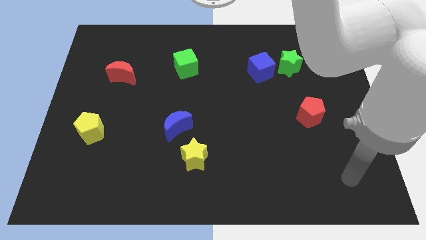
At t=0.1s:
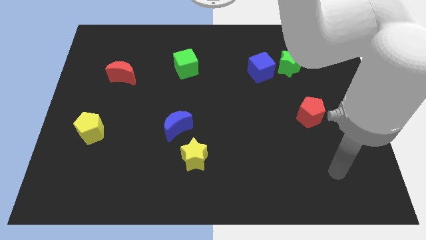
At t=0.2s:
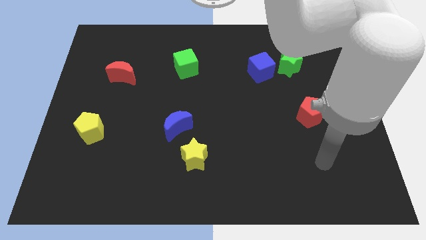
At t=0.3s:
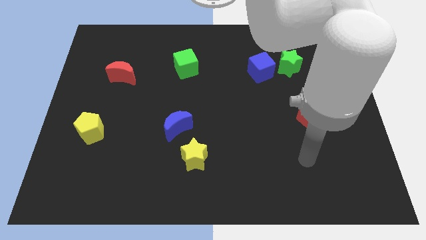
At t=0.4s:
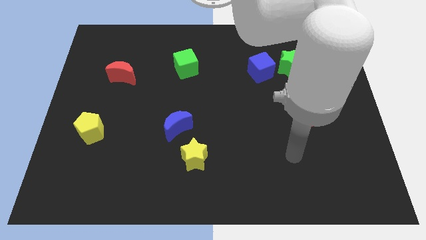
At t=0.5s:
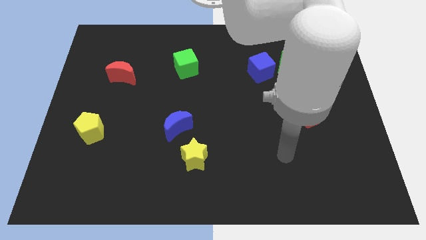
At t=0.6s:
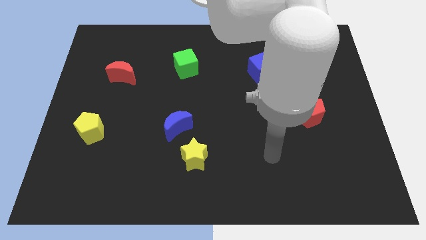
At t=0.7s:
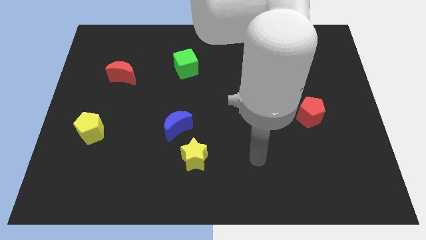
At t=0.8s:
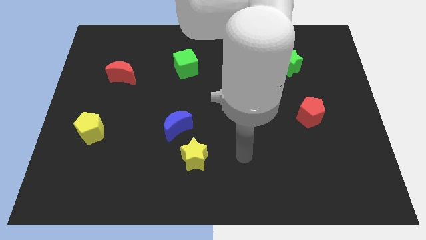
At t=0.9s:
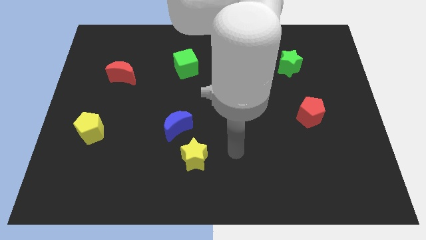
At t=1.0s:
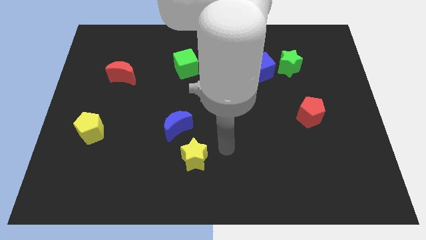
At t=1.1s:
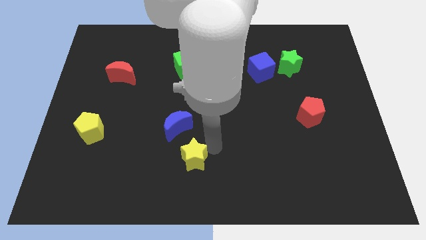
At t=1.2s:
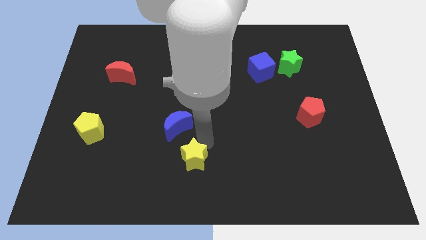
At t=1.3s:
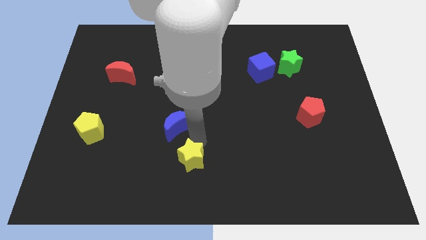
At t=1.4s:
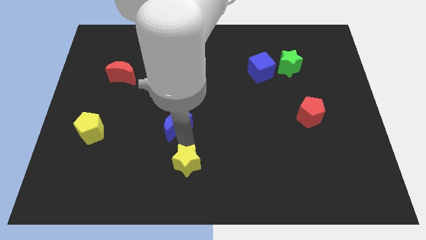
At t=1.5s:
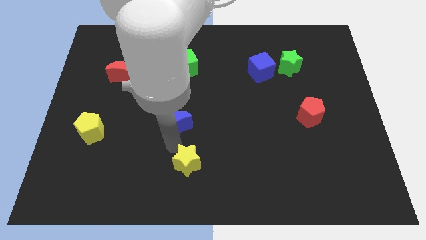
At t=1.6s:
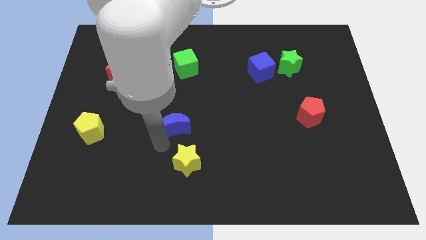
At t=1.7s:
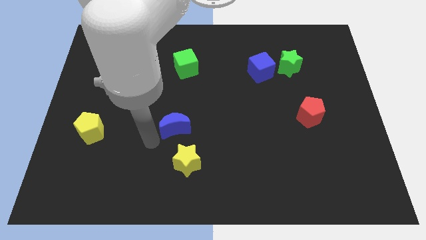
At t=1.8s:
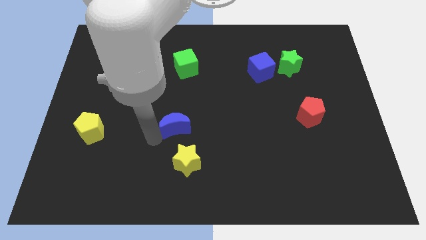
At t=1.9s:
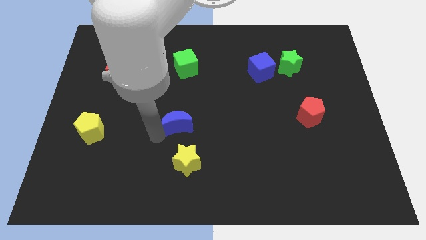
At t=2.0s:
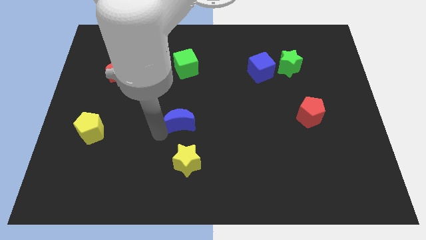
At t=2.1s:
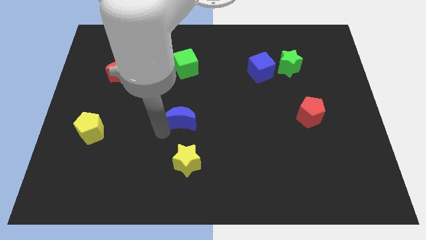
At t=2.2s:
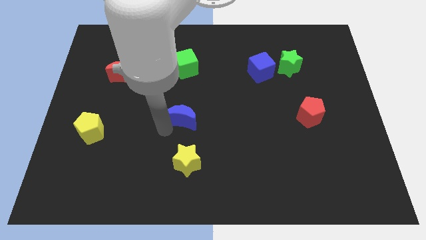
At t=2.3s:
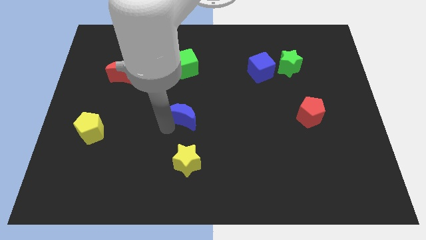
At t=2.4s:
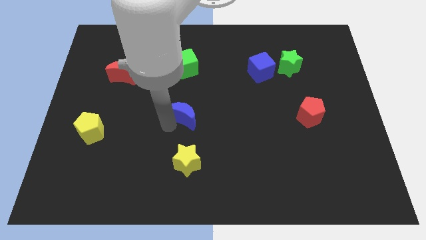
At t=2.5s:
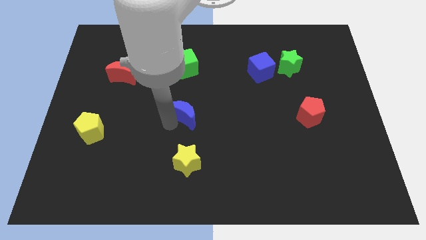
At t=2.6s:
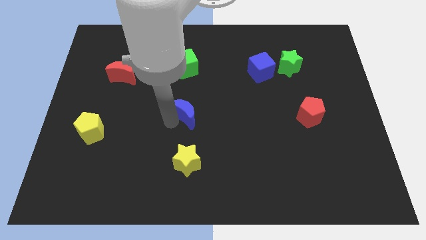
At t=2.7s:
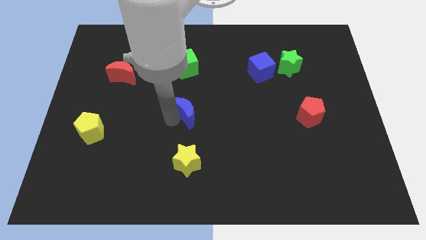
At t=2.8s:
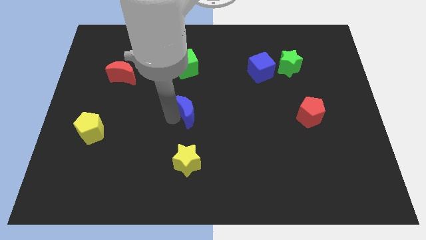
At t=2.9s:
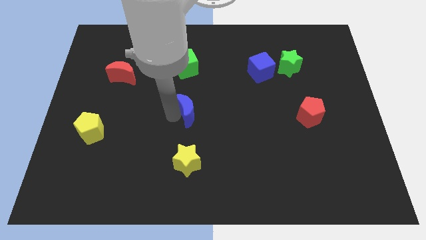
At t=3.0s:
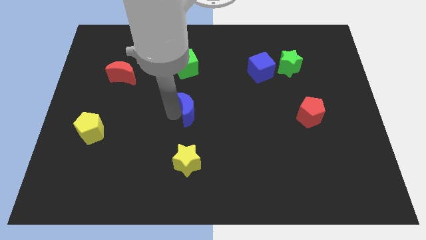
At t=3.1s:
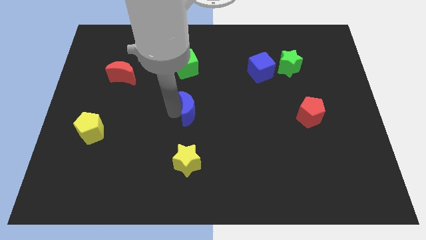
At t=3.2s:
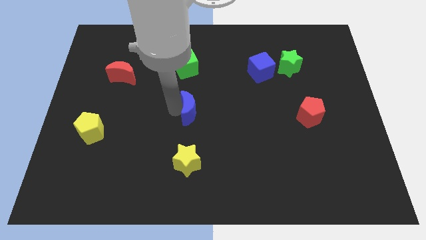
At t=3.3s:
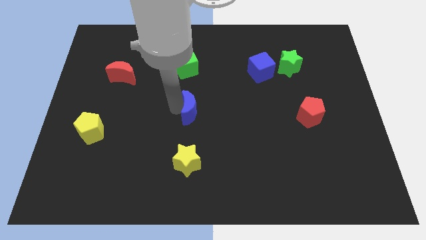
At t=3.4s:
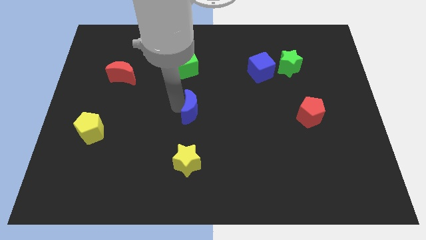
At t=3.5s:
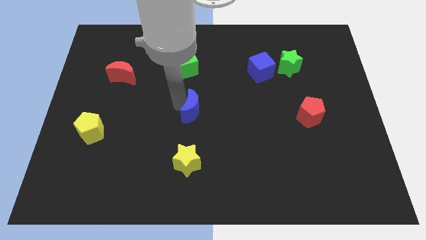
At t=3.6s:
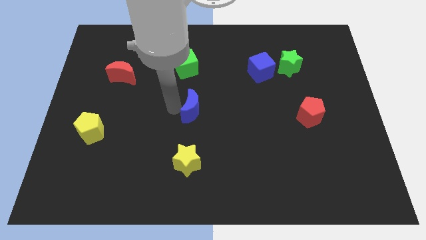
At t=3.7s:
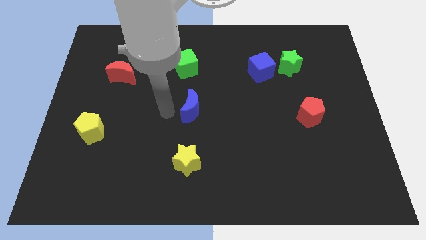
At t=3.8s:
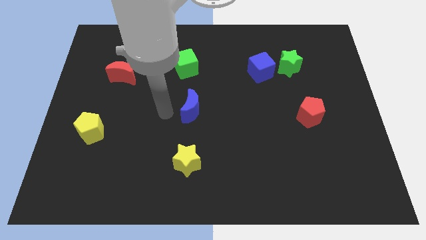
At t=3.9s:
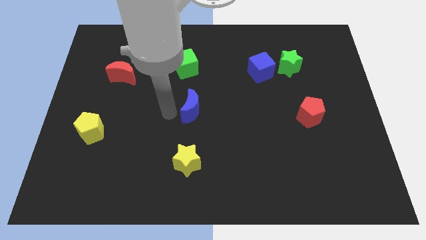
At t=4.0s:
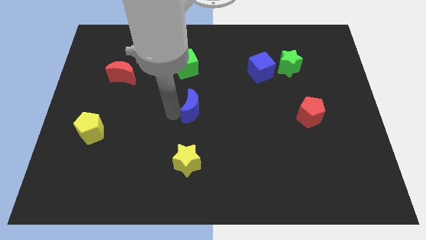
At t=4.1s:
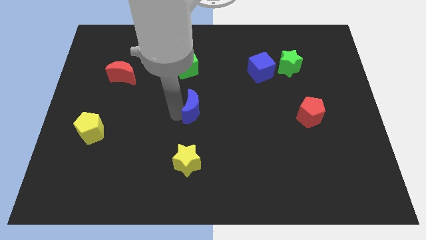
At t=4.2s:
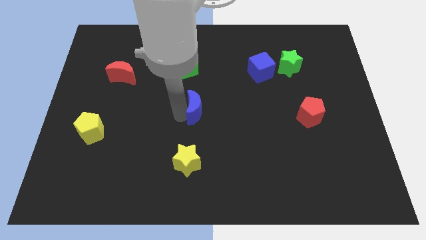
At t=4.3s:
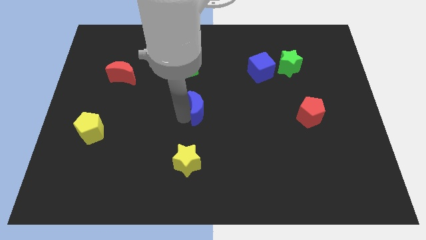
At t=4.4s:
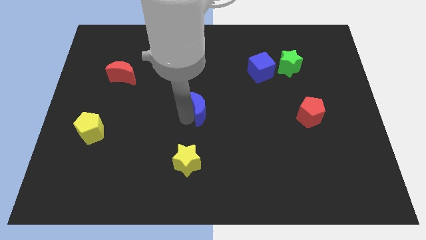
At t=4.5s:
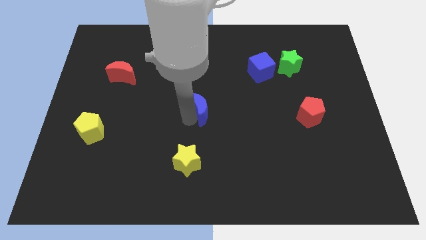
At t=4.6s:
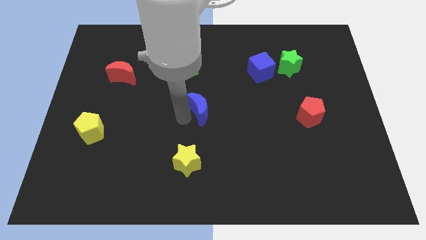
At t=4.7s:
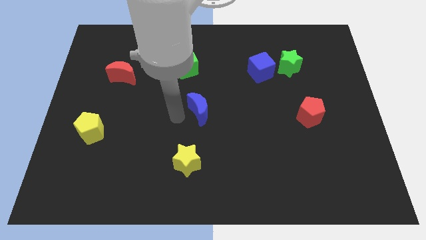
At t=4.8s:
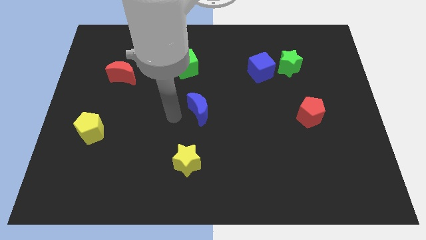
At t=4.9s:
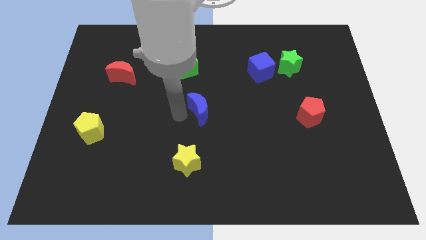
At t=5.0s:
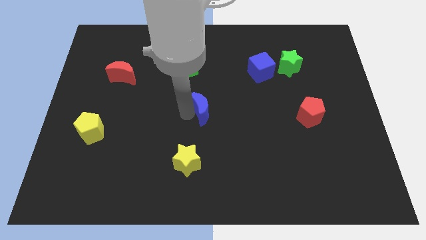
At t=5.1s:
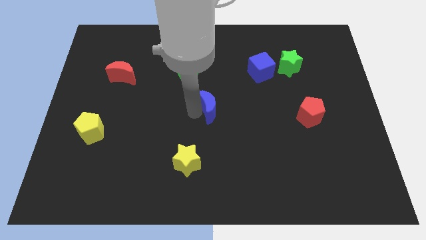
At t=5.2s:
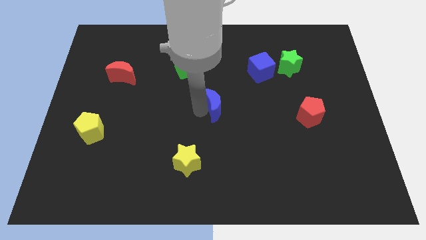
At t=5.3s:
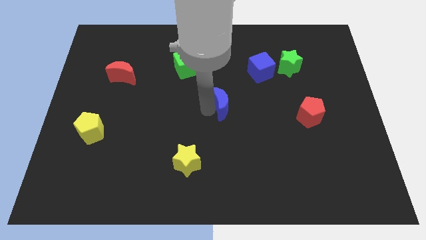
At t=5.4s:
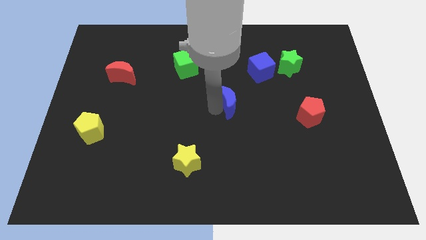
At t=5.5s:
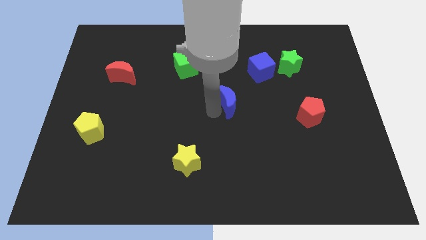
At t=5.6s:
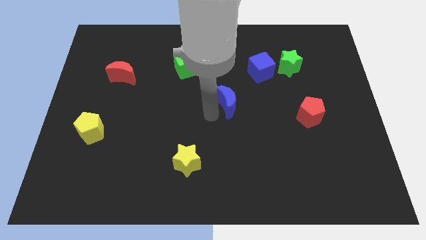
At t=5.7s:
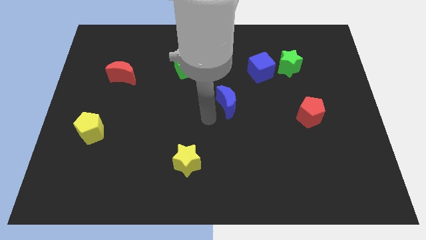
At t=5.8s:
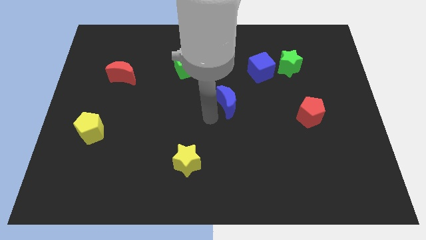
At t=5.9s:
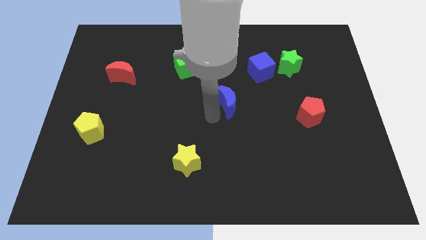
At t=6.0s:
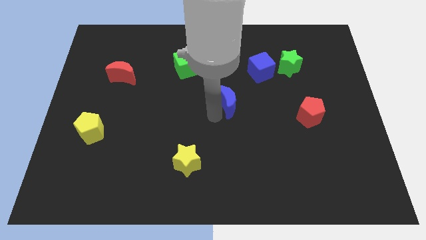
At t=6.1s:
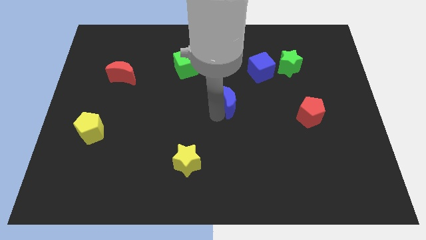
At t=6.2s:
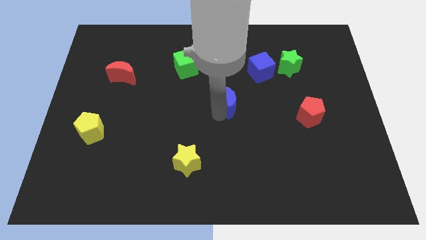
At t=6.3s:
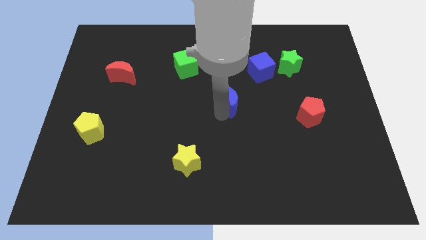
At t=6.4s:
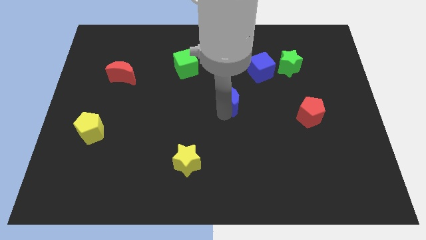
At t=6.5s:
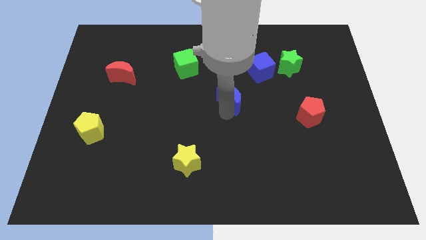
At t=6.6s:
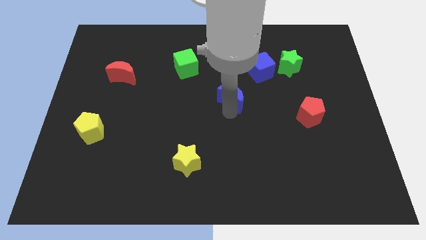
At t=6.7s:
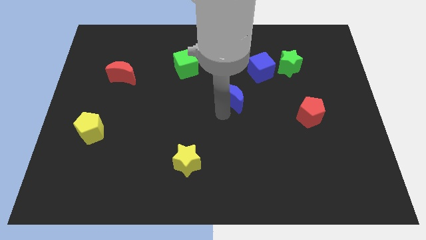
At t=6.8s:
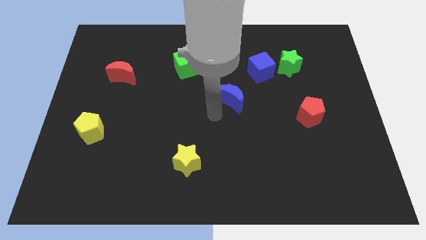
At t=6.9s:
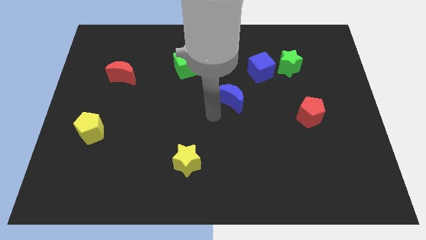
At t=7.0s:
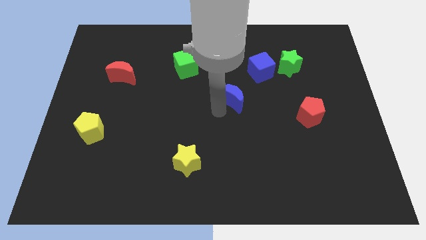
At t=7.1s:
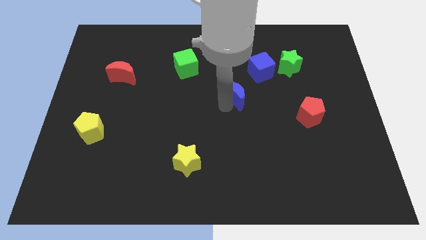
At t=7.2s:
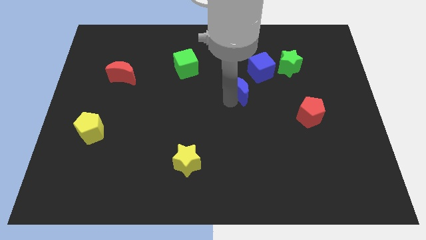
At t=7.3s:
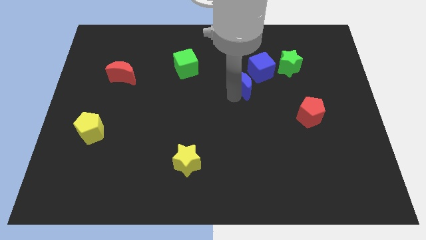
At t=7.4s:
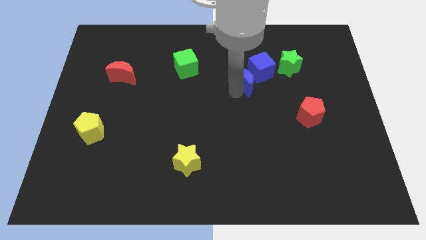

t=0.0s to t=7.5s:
push the blue moon towards the blue cube
